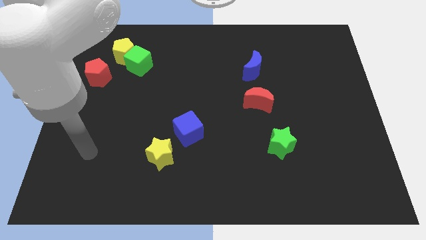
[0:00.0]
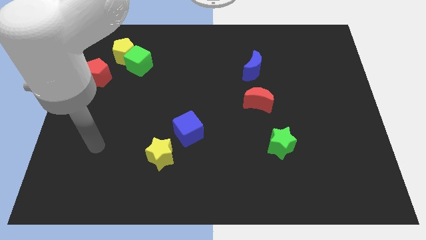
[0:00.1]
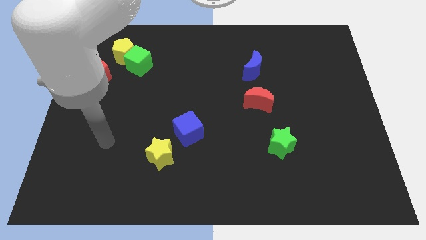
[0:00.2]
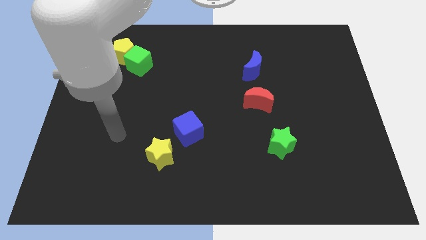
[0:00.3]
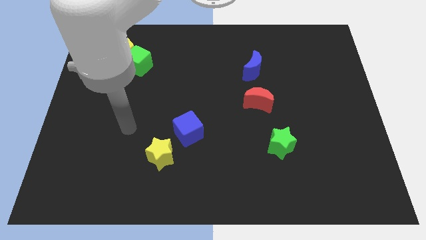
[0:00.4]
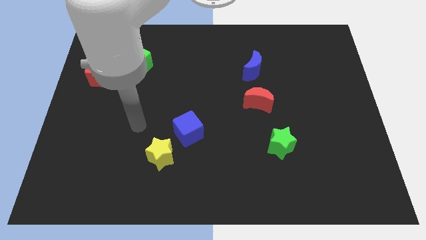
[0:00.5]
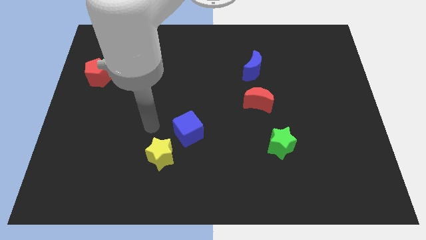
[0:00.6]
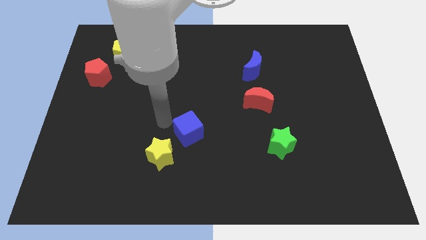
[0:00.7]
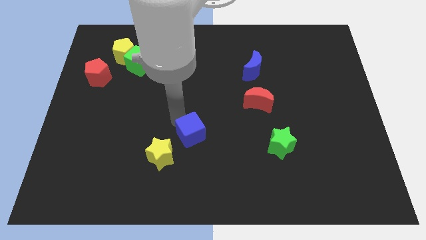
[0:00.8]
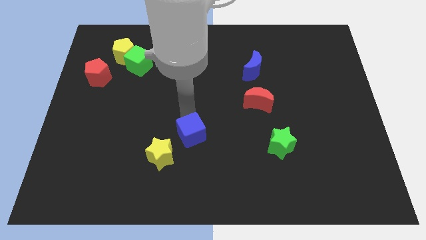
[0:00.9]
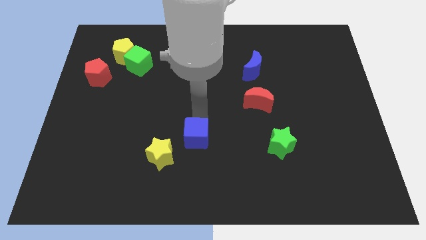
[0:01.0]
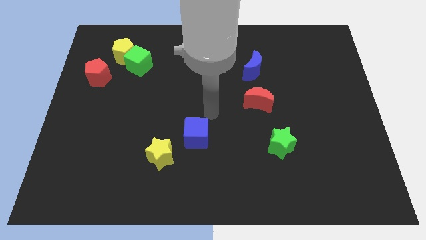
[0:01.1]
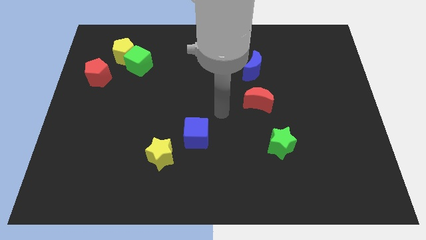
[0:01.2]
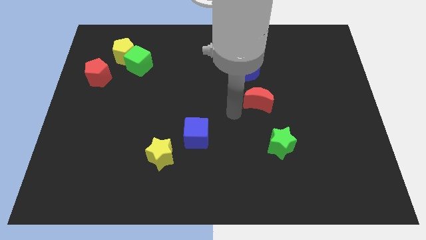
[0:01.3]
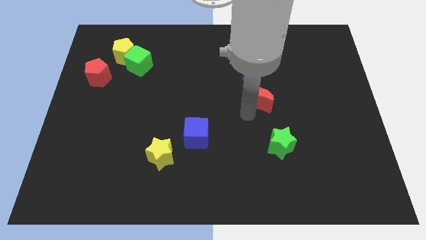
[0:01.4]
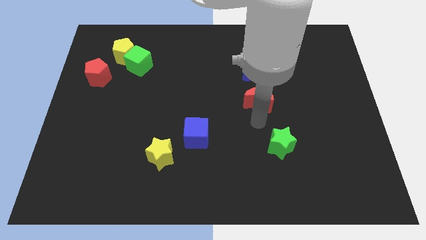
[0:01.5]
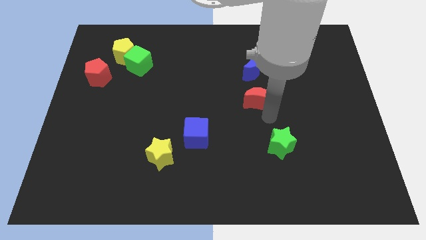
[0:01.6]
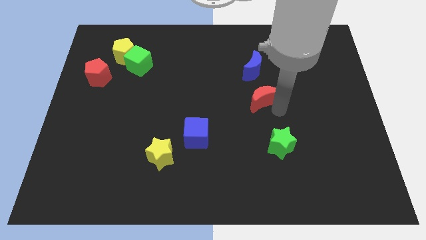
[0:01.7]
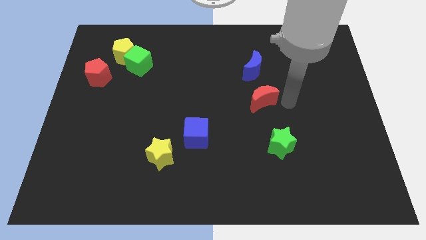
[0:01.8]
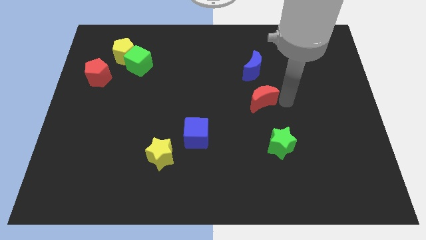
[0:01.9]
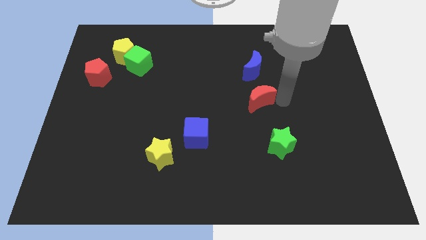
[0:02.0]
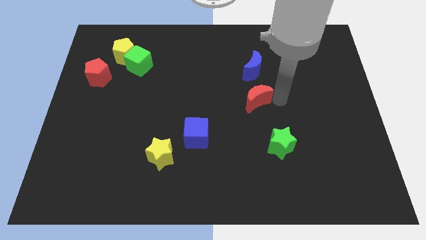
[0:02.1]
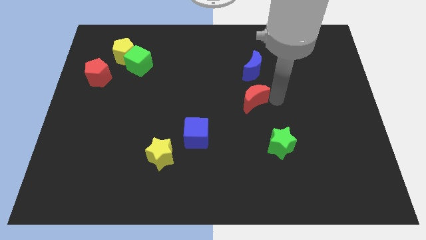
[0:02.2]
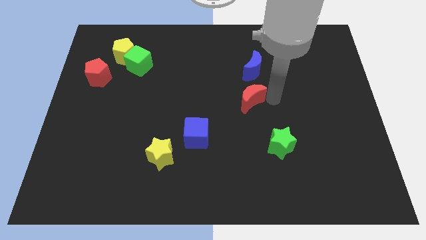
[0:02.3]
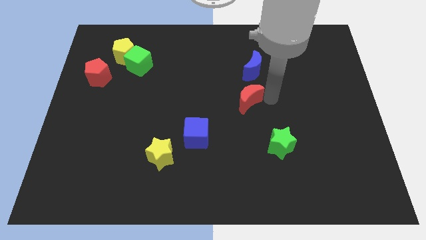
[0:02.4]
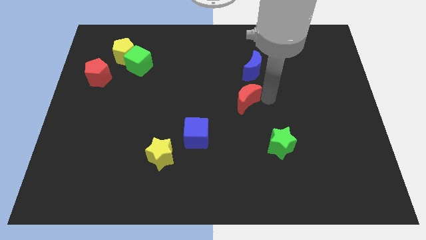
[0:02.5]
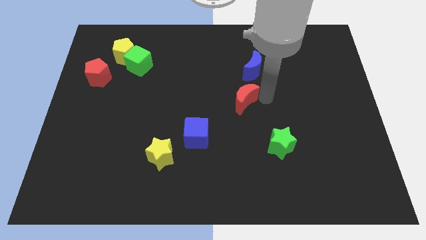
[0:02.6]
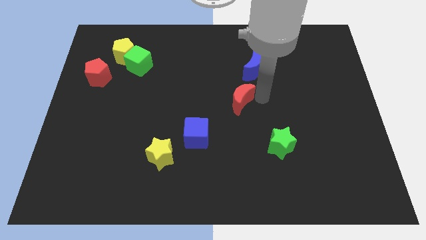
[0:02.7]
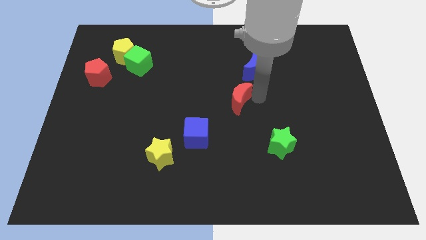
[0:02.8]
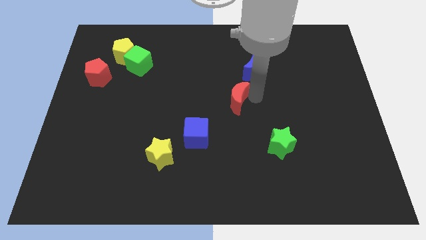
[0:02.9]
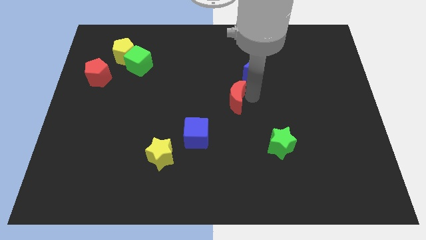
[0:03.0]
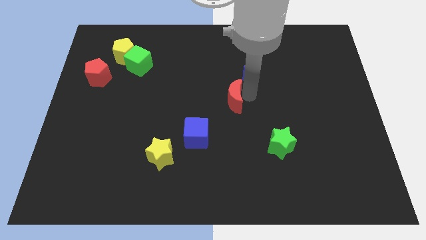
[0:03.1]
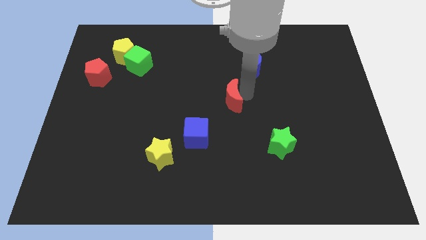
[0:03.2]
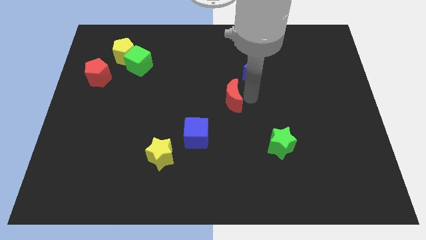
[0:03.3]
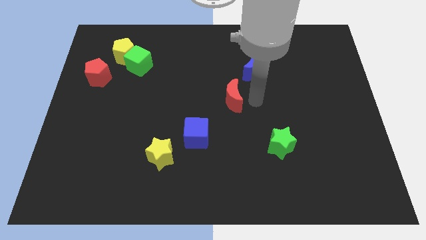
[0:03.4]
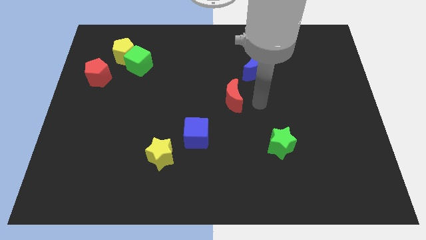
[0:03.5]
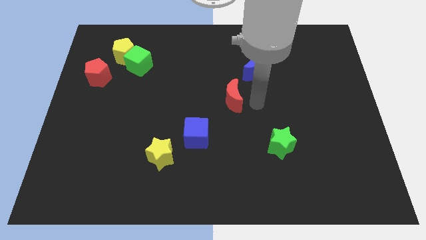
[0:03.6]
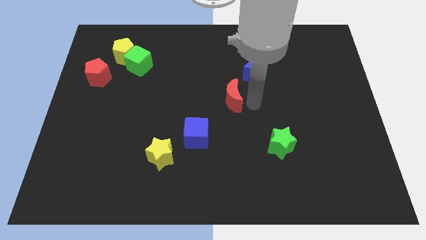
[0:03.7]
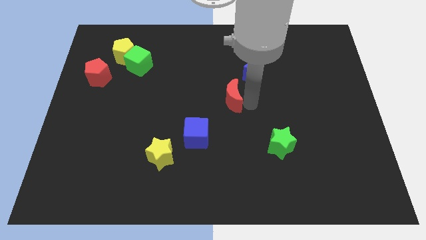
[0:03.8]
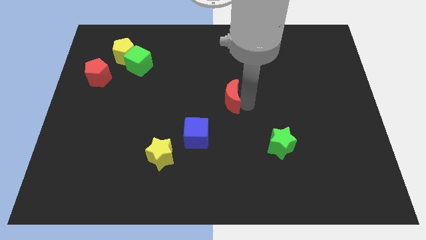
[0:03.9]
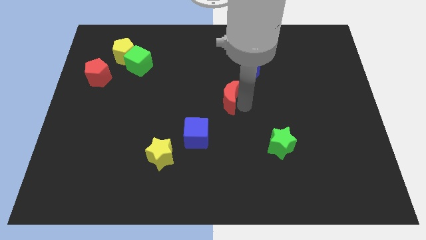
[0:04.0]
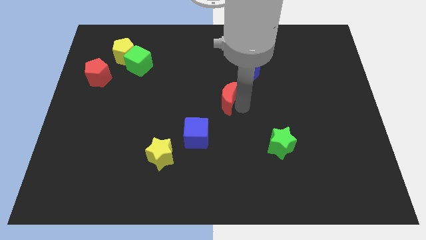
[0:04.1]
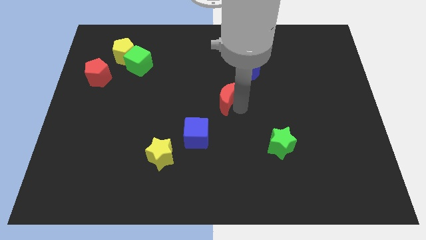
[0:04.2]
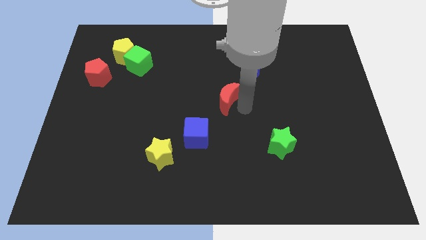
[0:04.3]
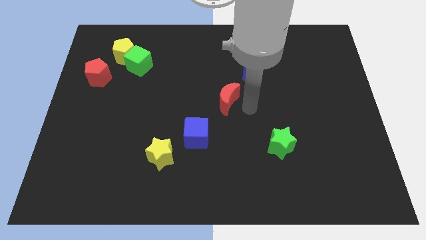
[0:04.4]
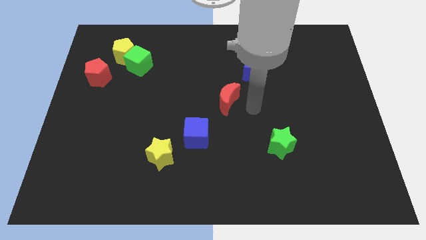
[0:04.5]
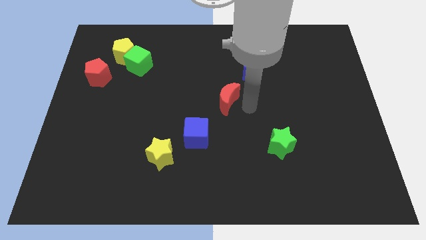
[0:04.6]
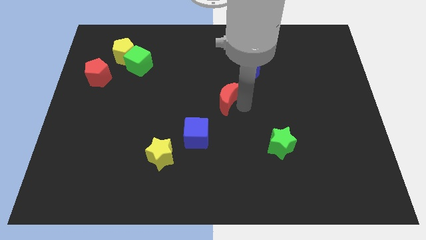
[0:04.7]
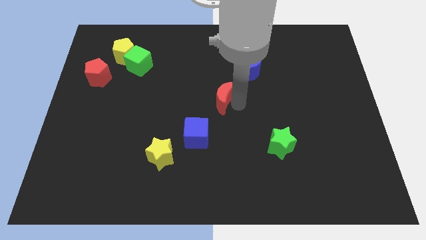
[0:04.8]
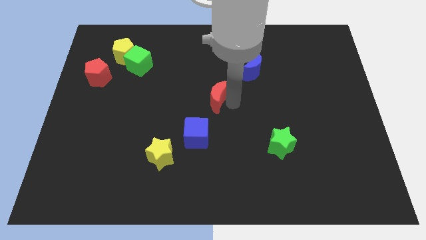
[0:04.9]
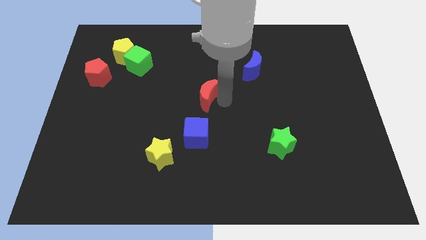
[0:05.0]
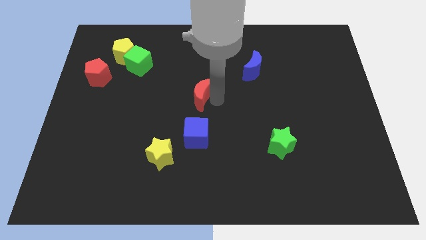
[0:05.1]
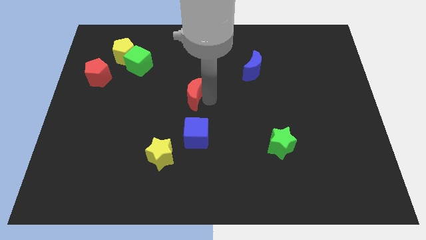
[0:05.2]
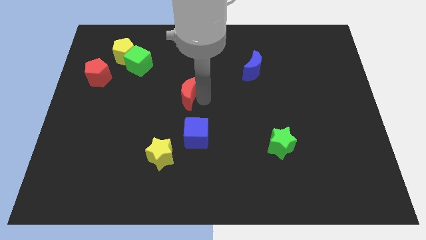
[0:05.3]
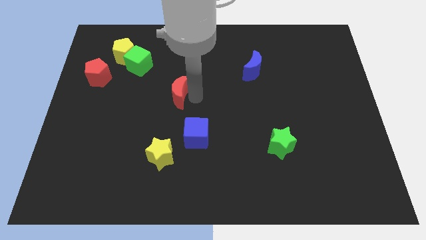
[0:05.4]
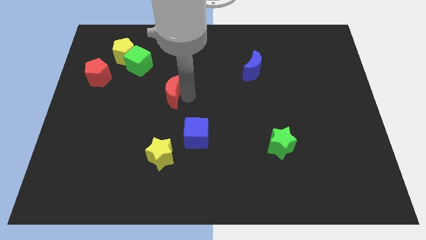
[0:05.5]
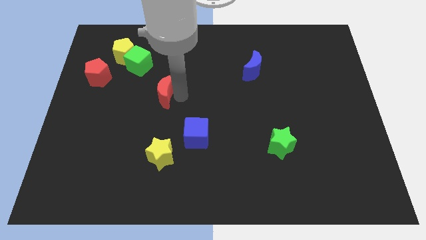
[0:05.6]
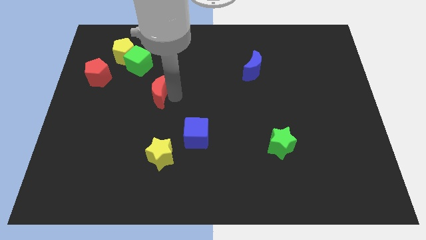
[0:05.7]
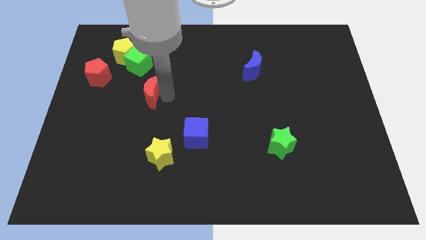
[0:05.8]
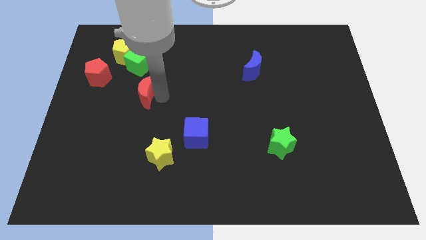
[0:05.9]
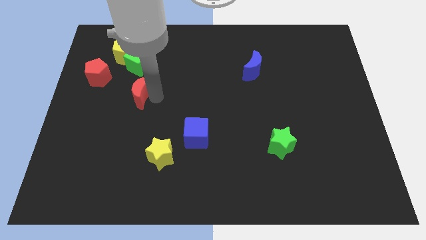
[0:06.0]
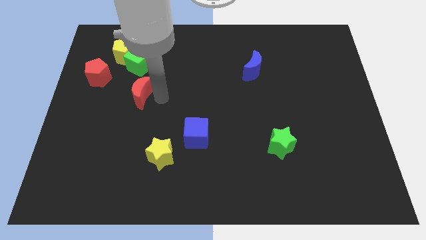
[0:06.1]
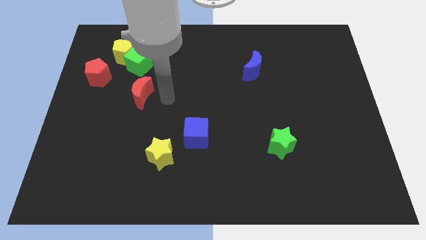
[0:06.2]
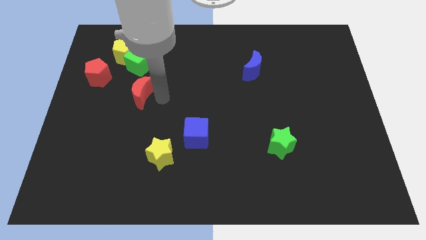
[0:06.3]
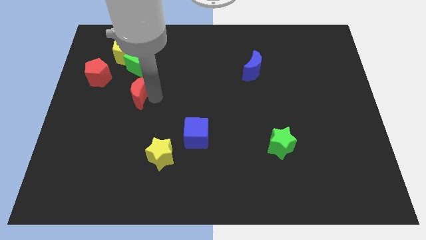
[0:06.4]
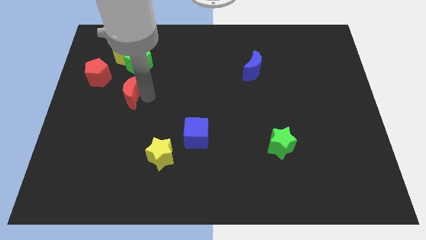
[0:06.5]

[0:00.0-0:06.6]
push the red moon diagonally down and to the right of the red pentagon
